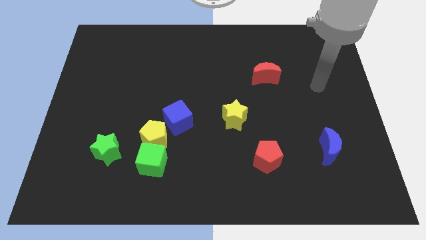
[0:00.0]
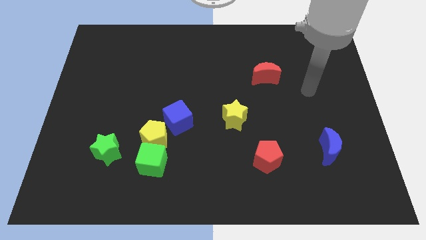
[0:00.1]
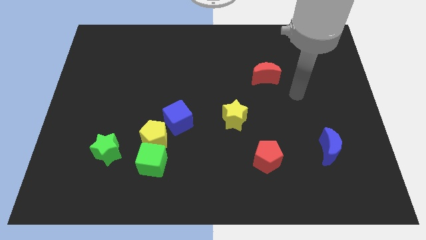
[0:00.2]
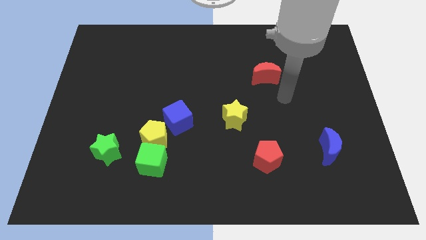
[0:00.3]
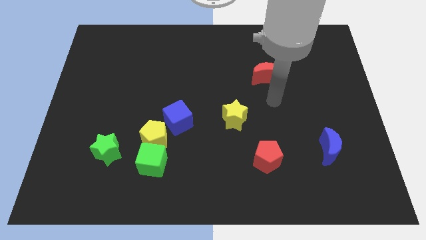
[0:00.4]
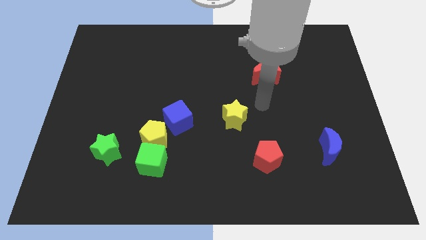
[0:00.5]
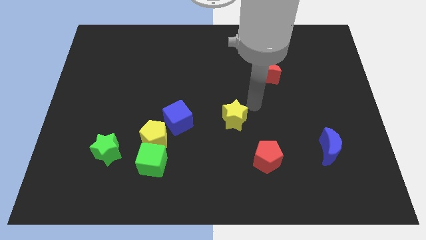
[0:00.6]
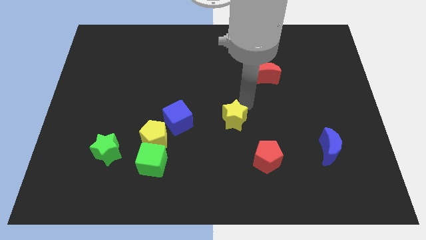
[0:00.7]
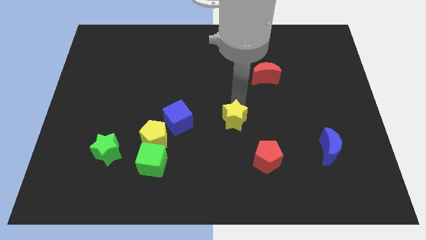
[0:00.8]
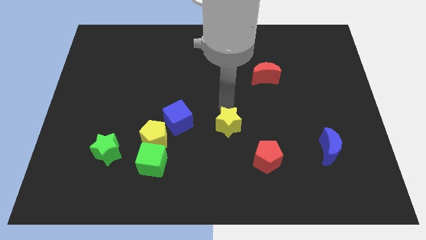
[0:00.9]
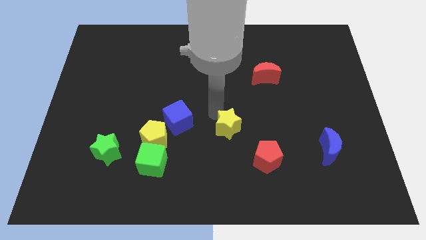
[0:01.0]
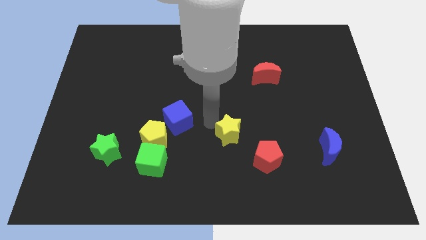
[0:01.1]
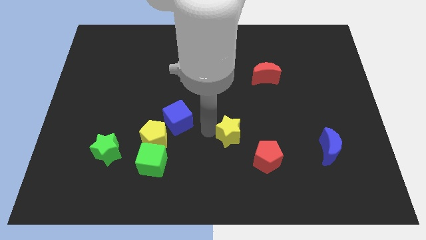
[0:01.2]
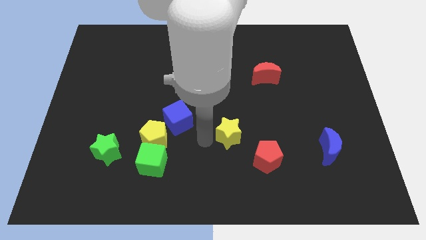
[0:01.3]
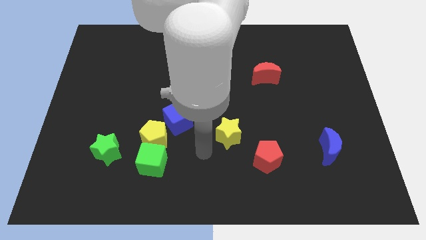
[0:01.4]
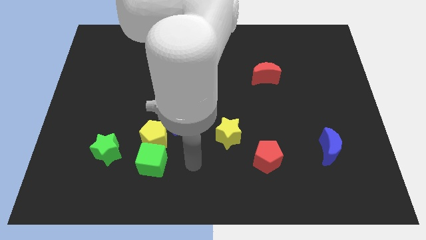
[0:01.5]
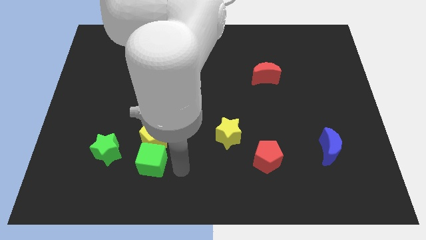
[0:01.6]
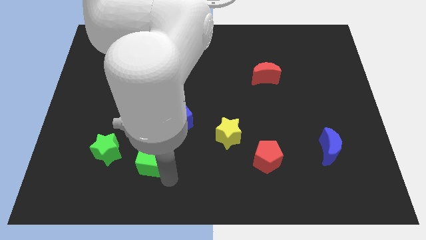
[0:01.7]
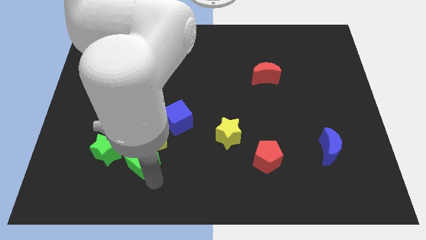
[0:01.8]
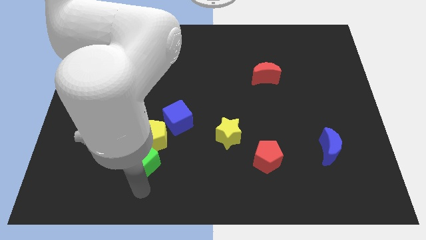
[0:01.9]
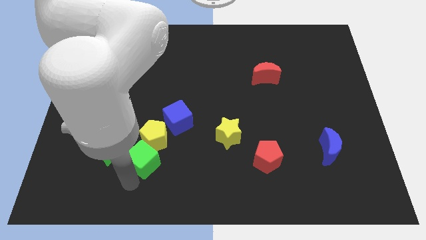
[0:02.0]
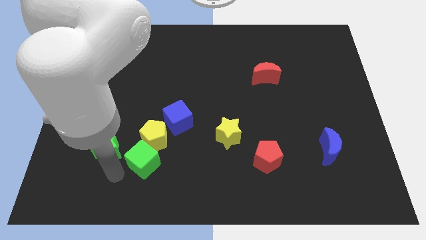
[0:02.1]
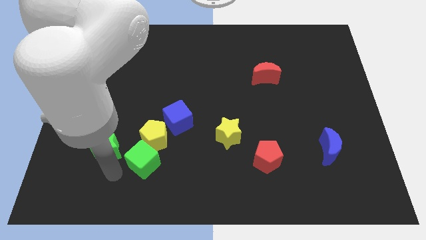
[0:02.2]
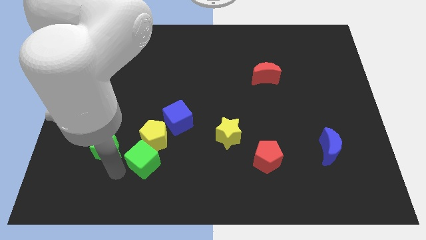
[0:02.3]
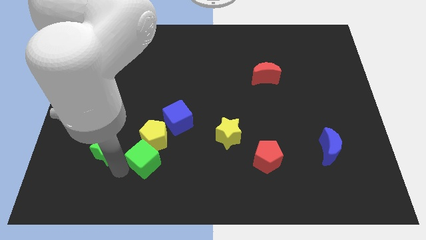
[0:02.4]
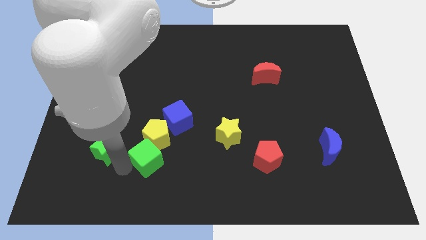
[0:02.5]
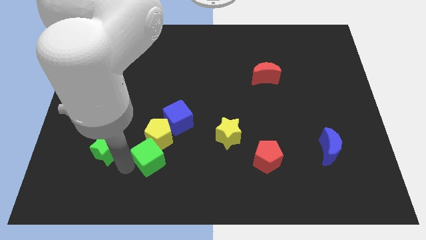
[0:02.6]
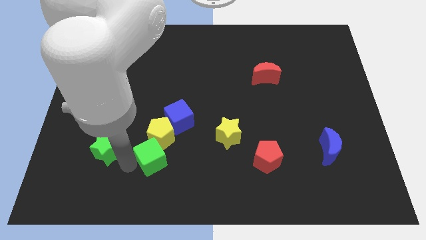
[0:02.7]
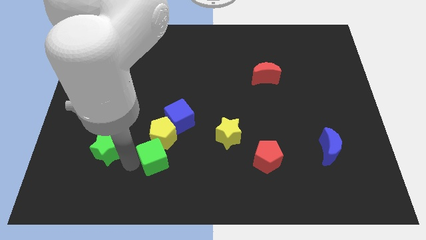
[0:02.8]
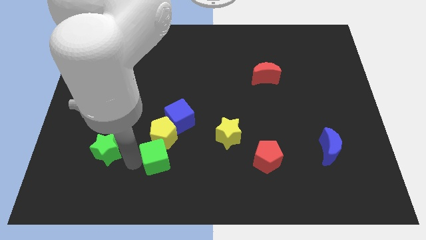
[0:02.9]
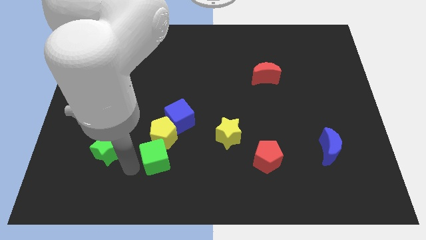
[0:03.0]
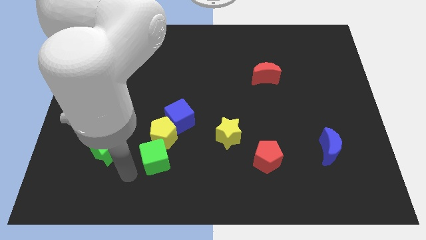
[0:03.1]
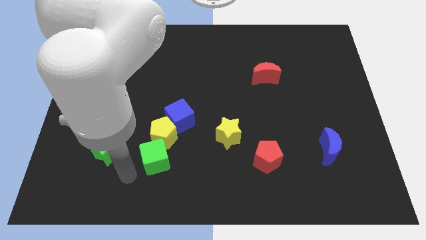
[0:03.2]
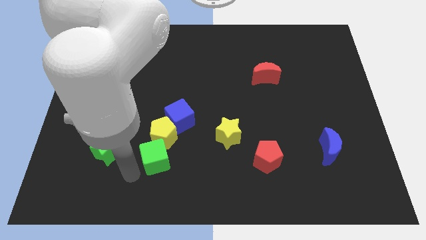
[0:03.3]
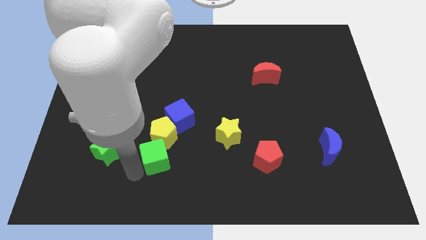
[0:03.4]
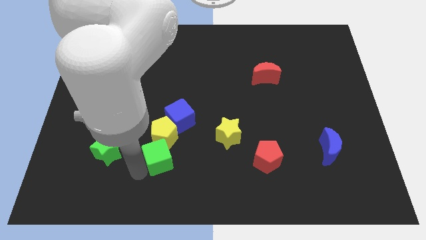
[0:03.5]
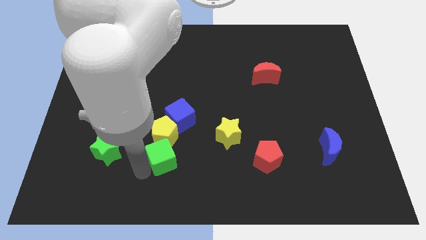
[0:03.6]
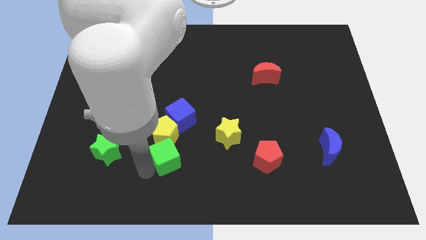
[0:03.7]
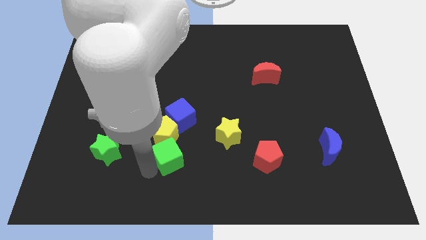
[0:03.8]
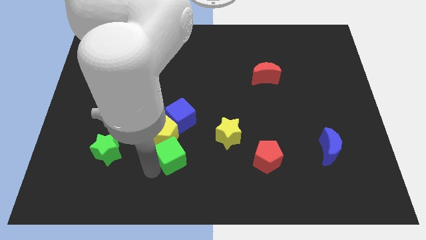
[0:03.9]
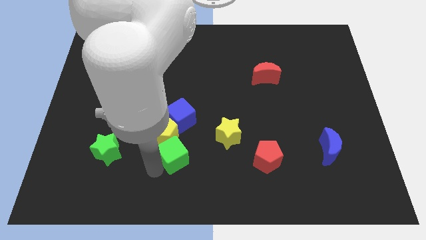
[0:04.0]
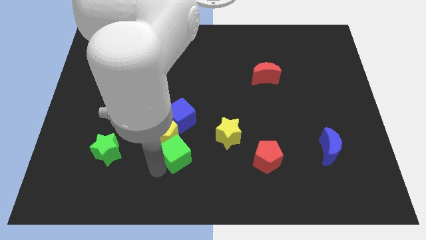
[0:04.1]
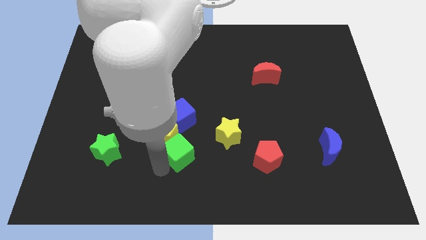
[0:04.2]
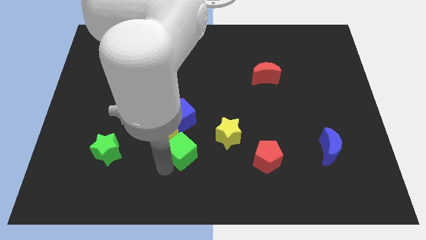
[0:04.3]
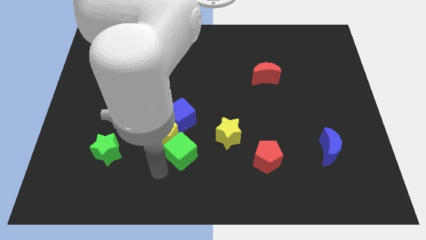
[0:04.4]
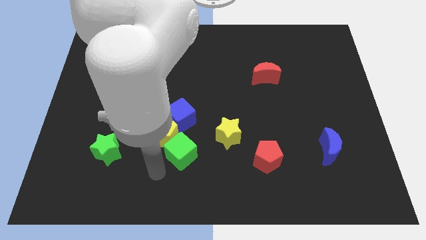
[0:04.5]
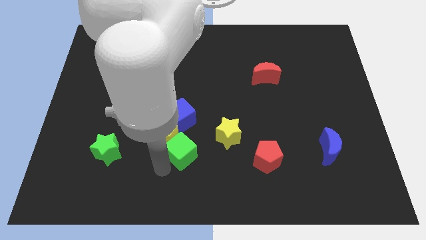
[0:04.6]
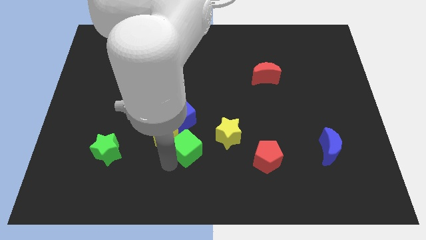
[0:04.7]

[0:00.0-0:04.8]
move the green cube diagonally down and to the right of the blue cube

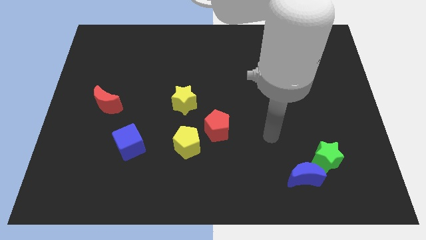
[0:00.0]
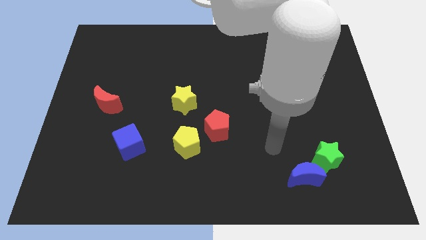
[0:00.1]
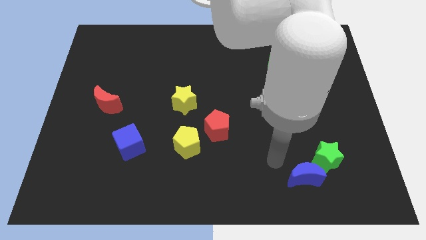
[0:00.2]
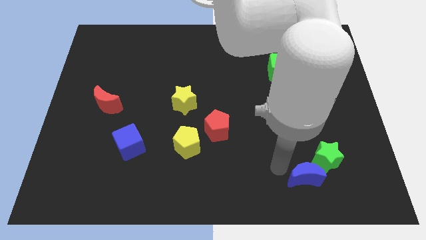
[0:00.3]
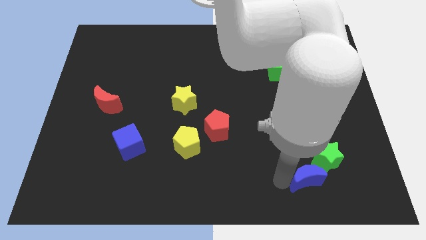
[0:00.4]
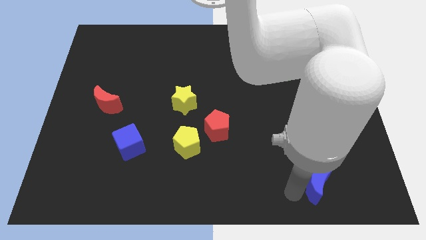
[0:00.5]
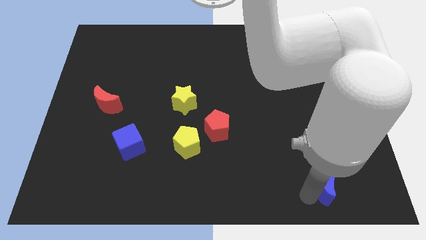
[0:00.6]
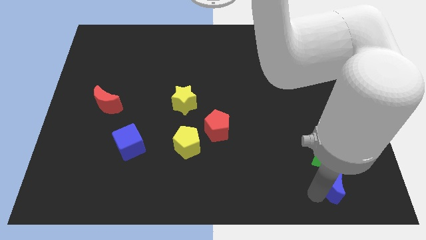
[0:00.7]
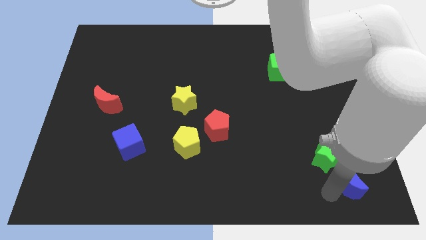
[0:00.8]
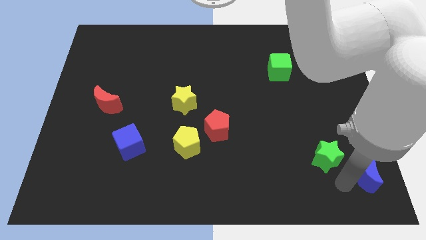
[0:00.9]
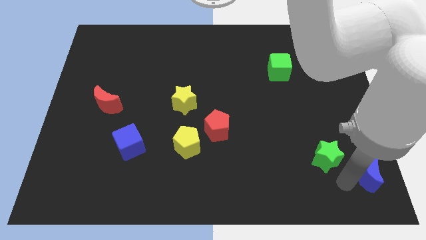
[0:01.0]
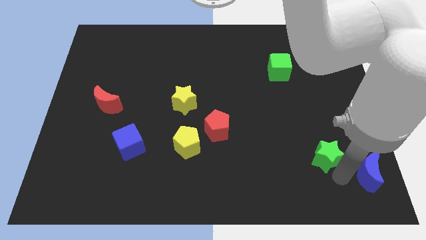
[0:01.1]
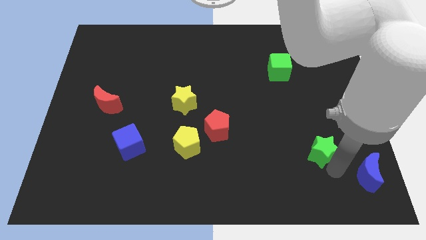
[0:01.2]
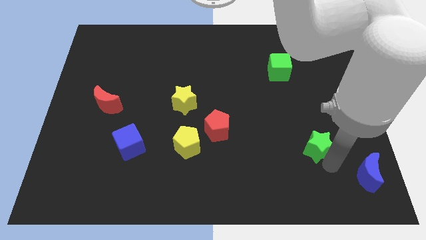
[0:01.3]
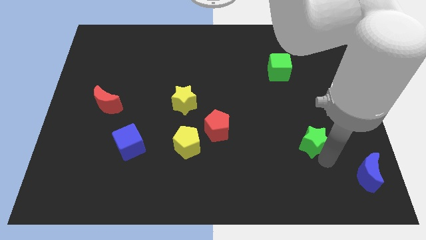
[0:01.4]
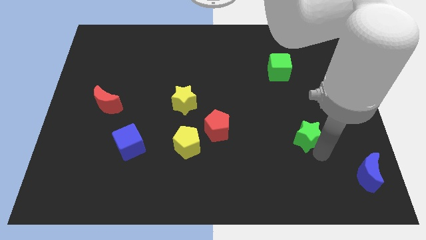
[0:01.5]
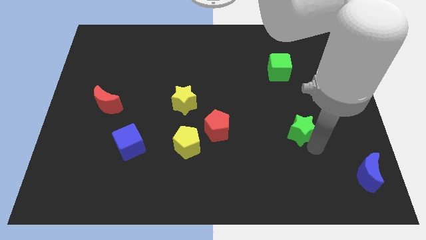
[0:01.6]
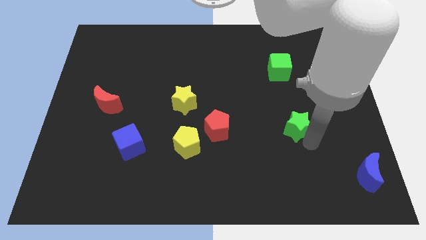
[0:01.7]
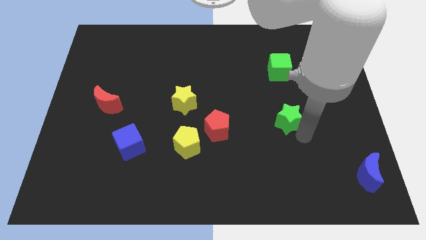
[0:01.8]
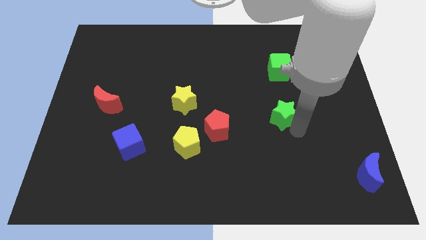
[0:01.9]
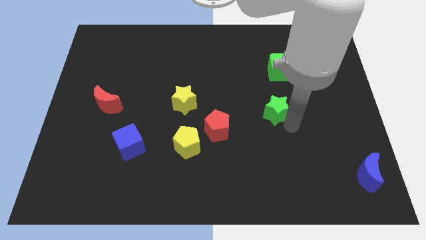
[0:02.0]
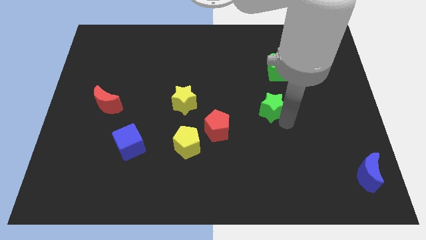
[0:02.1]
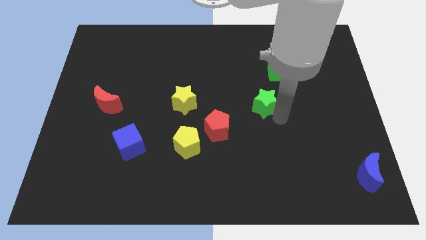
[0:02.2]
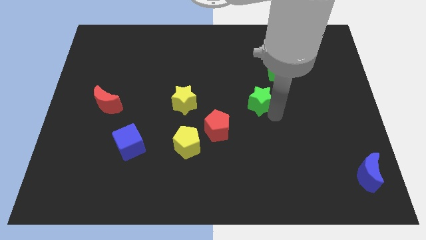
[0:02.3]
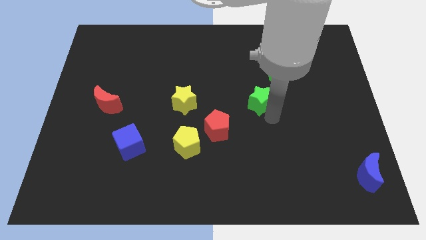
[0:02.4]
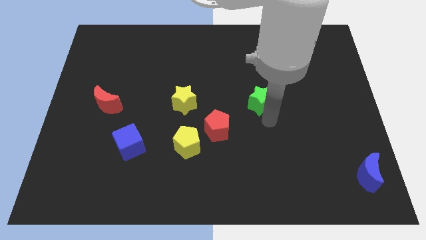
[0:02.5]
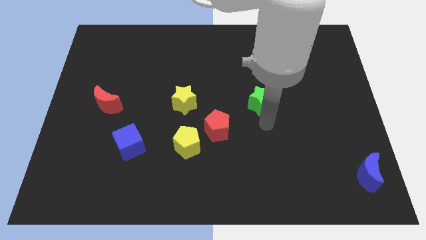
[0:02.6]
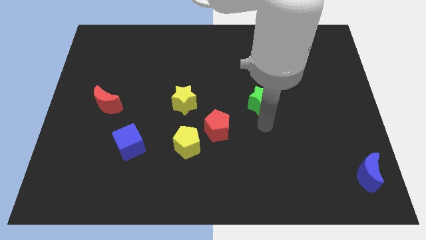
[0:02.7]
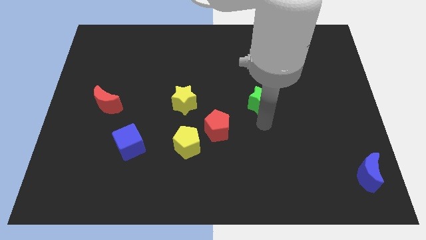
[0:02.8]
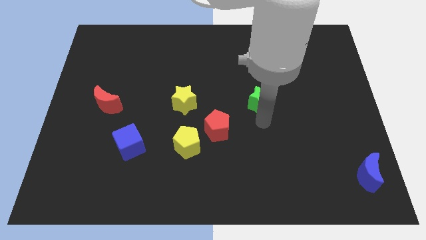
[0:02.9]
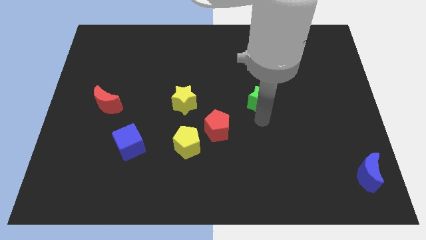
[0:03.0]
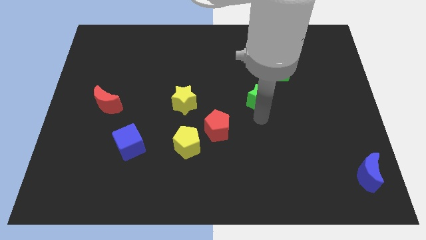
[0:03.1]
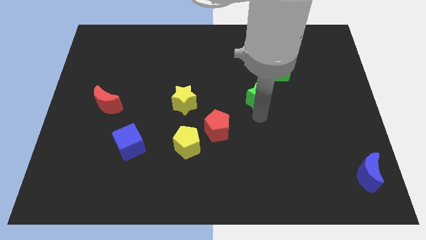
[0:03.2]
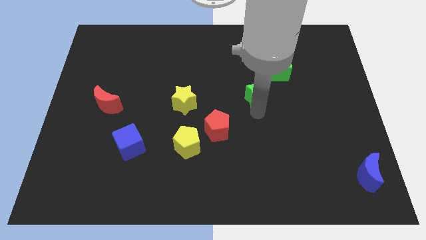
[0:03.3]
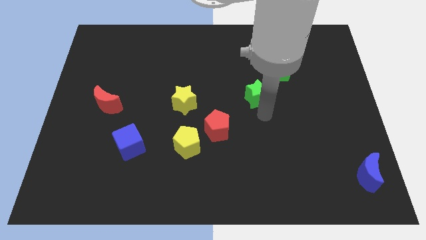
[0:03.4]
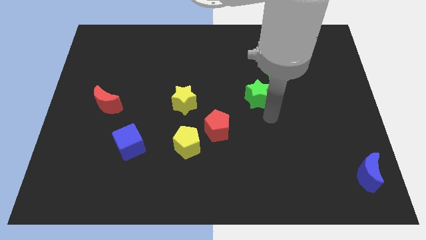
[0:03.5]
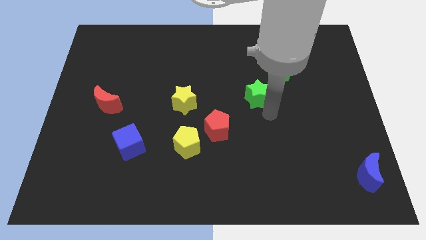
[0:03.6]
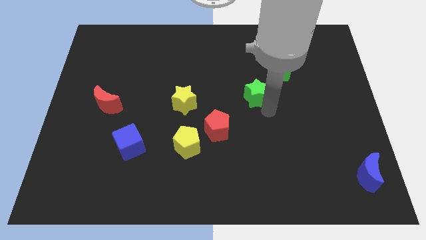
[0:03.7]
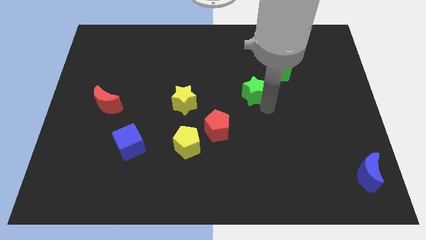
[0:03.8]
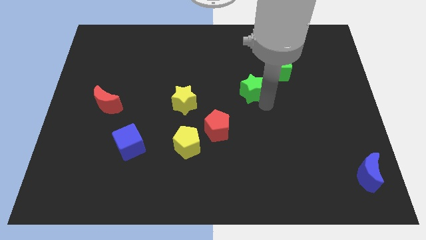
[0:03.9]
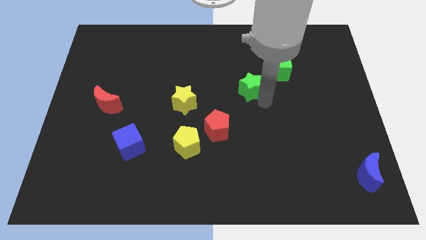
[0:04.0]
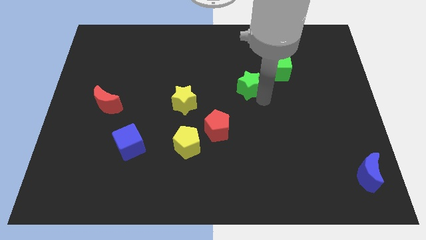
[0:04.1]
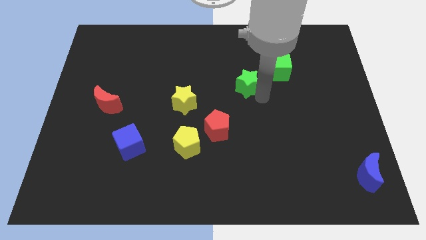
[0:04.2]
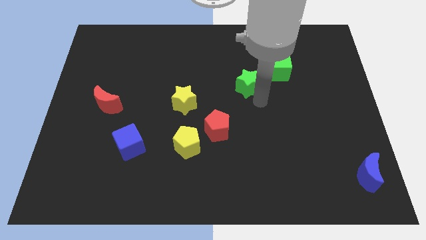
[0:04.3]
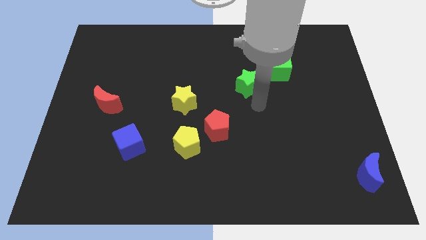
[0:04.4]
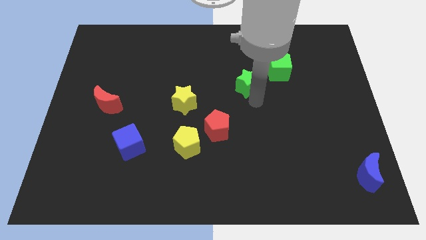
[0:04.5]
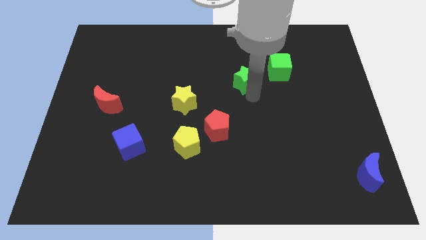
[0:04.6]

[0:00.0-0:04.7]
slide the green star to the left of the green cube
